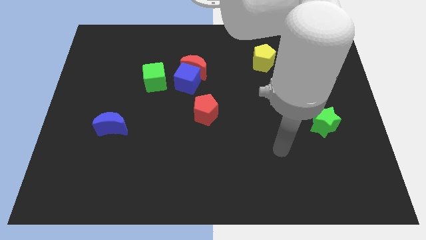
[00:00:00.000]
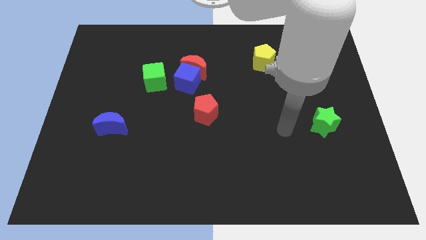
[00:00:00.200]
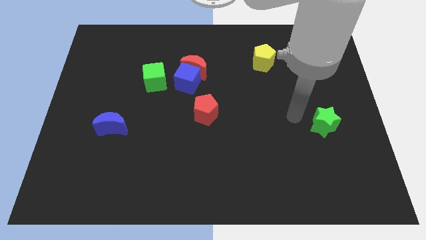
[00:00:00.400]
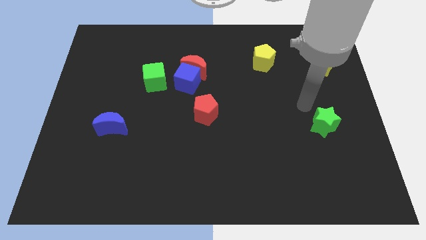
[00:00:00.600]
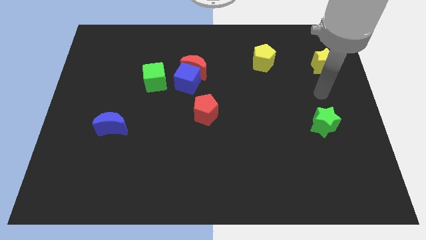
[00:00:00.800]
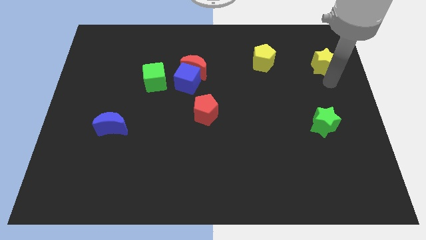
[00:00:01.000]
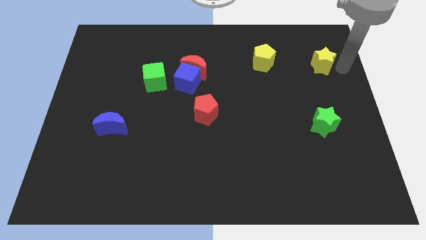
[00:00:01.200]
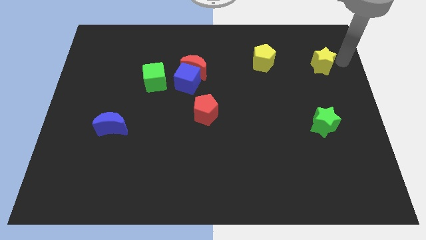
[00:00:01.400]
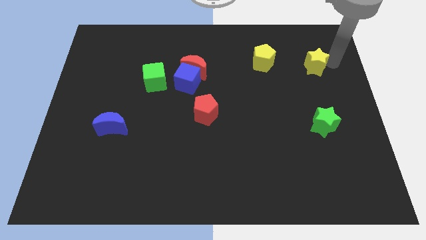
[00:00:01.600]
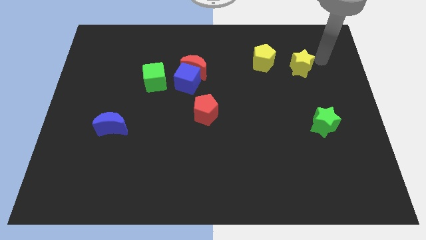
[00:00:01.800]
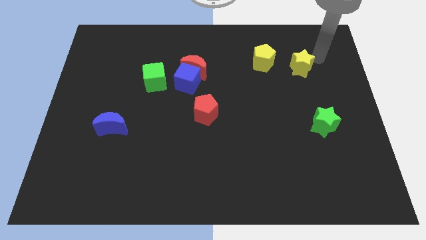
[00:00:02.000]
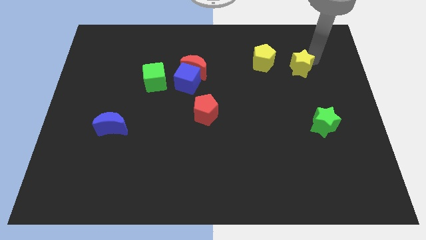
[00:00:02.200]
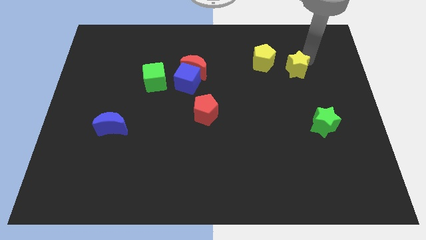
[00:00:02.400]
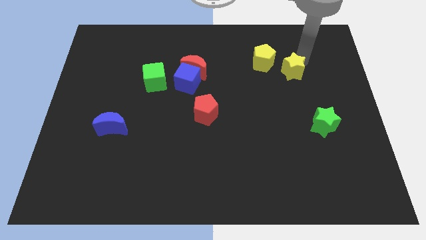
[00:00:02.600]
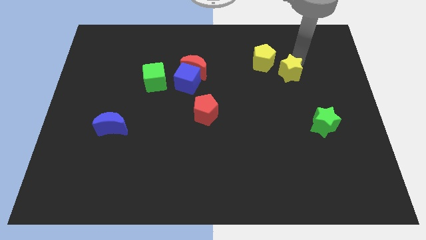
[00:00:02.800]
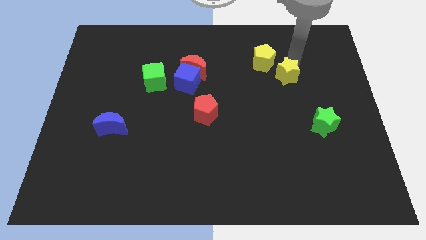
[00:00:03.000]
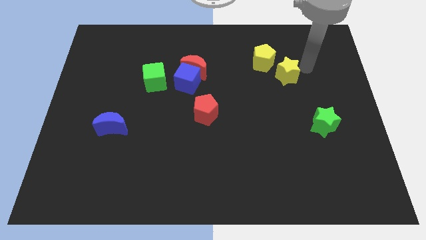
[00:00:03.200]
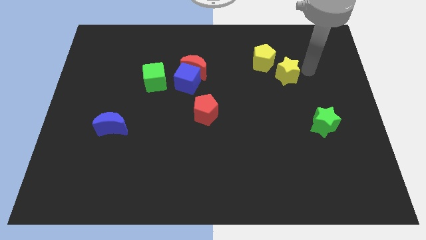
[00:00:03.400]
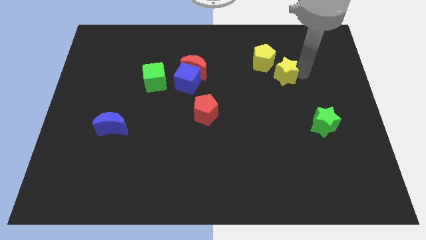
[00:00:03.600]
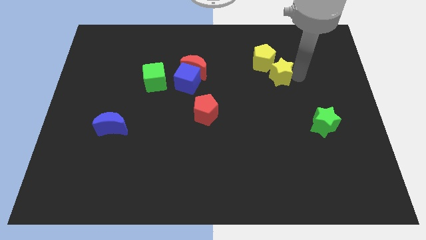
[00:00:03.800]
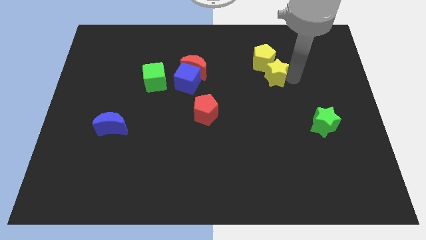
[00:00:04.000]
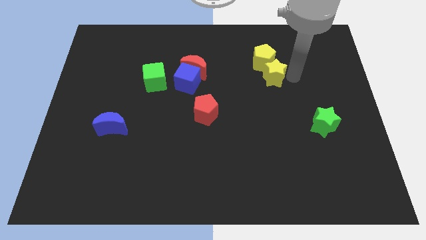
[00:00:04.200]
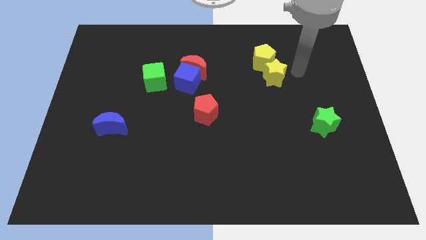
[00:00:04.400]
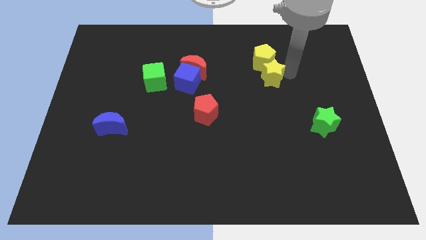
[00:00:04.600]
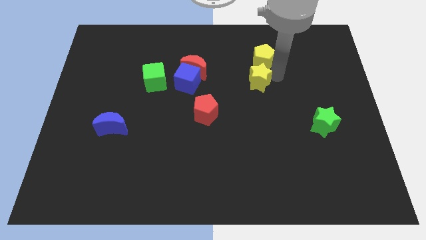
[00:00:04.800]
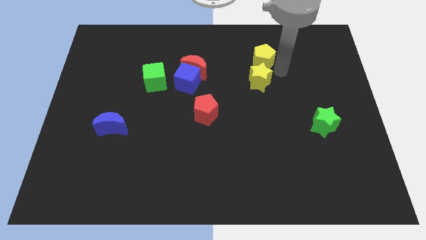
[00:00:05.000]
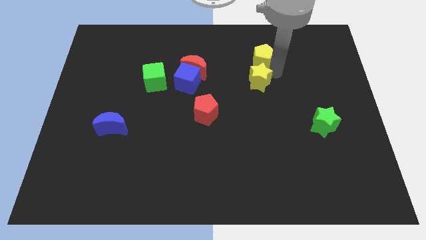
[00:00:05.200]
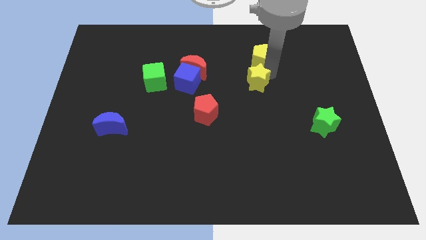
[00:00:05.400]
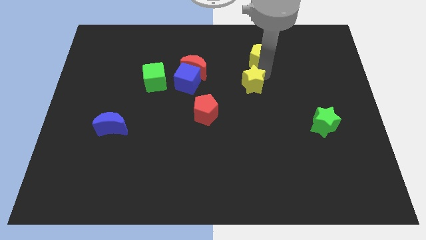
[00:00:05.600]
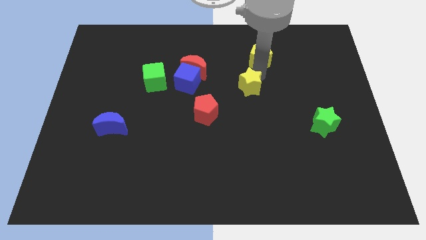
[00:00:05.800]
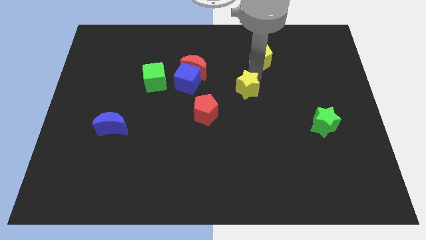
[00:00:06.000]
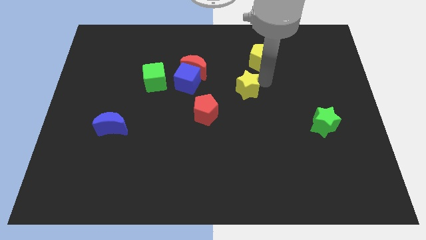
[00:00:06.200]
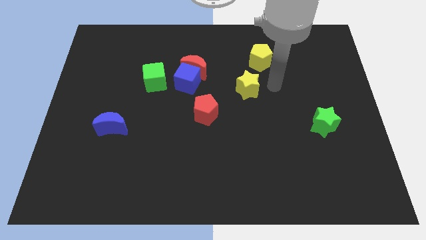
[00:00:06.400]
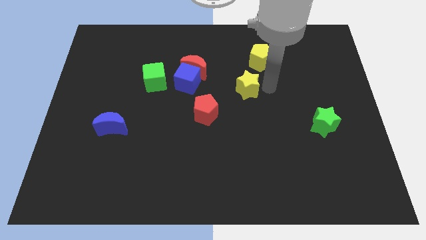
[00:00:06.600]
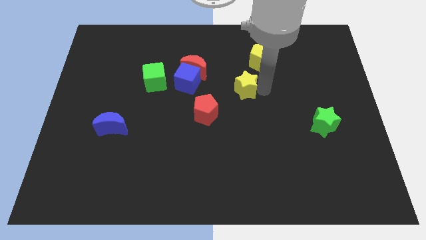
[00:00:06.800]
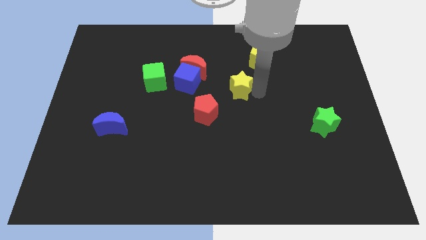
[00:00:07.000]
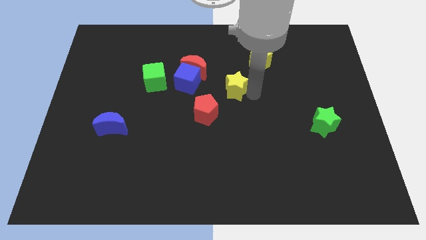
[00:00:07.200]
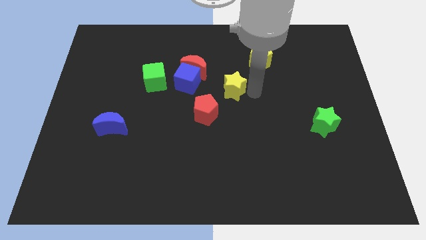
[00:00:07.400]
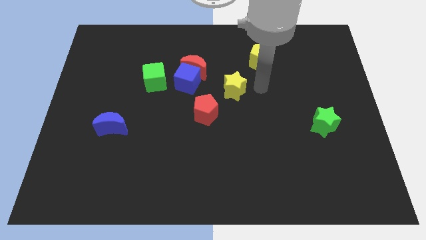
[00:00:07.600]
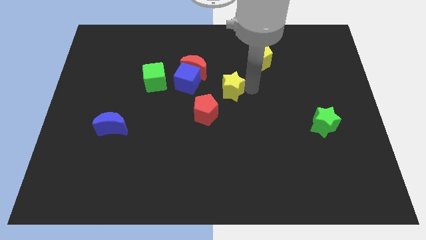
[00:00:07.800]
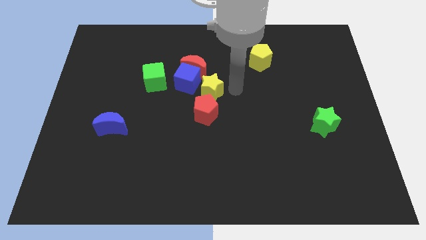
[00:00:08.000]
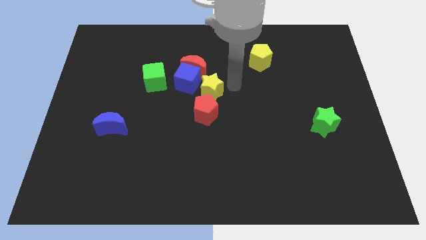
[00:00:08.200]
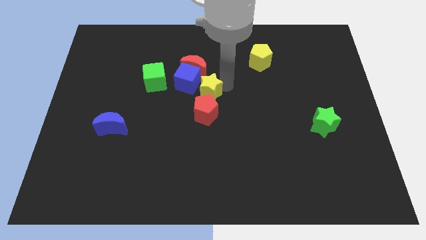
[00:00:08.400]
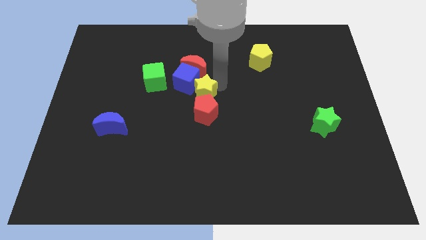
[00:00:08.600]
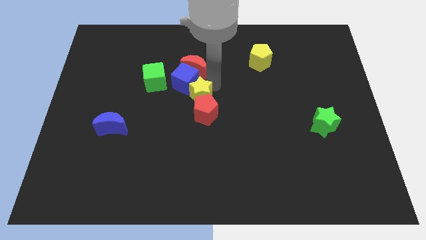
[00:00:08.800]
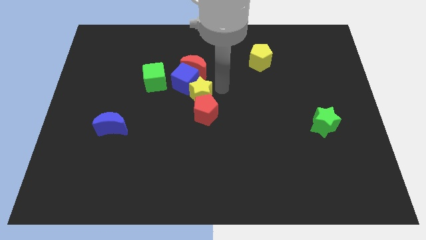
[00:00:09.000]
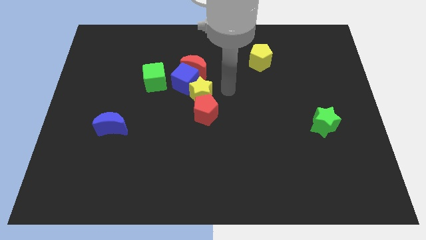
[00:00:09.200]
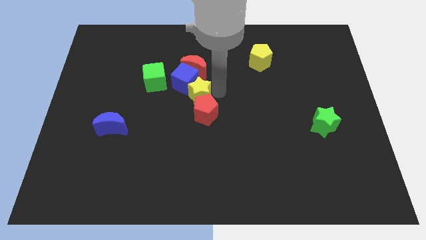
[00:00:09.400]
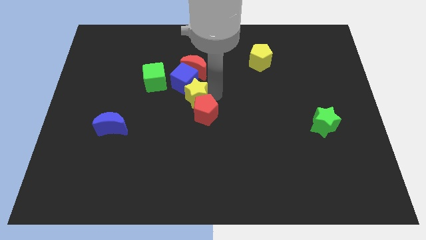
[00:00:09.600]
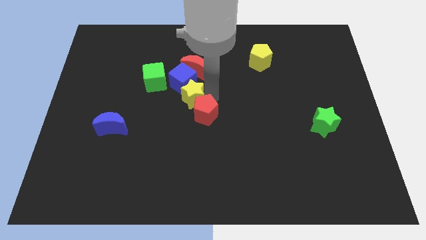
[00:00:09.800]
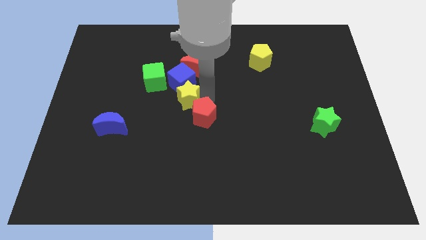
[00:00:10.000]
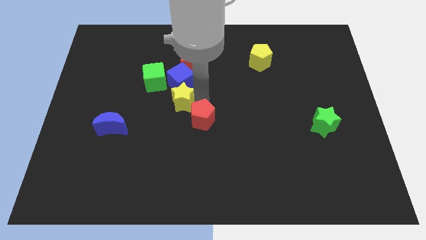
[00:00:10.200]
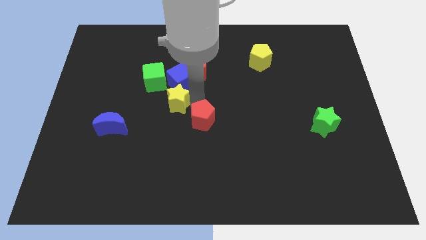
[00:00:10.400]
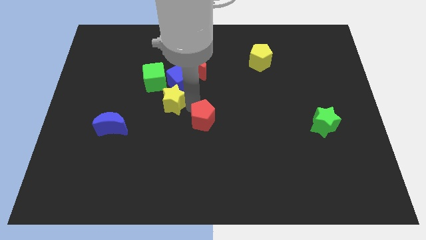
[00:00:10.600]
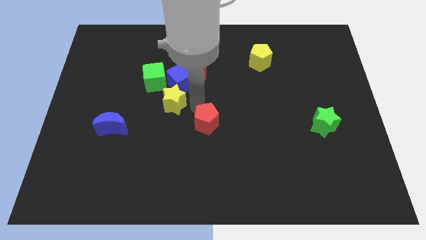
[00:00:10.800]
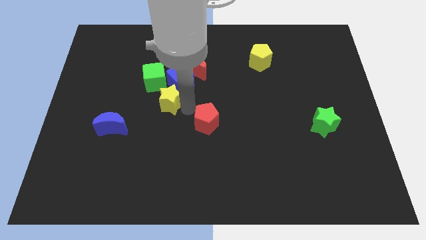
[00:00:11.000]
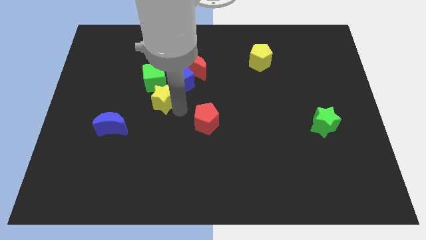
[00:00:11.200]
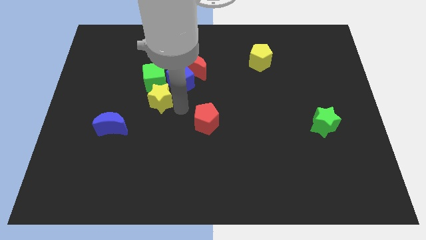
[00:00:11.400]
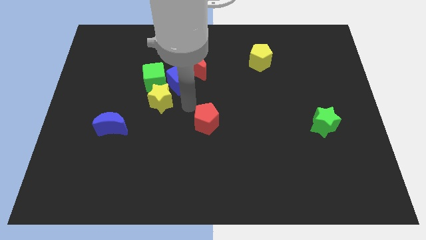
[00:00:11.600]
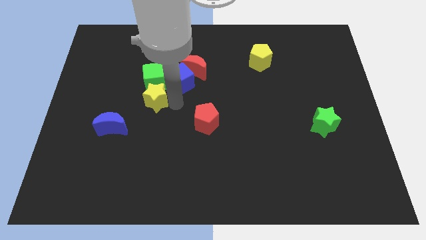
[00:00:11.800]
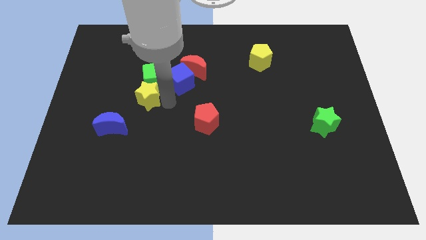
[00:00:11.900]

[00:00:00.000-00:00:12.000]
slide the yellow star diagonally down and to the left of the green cube

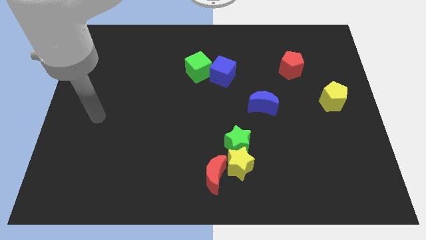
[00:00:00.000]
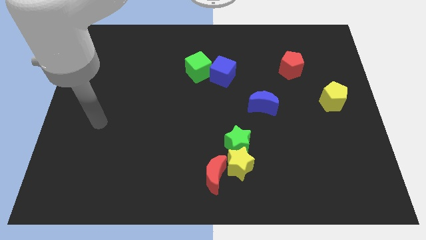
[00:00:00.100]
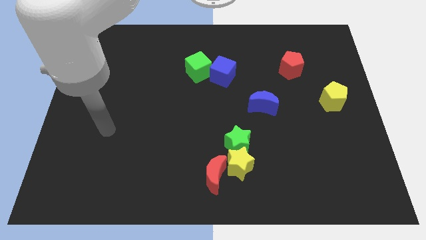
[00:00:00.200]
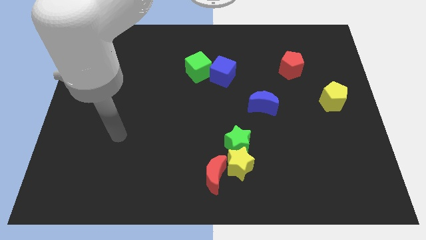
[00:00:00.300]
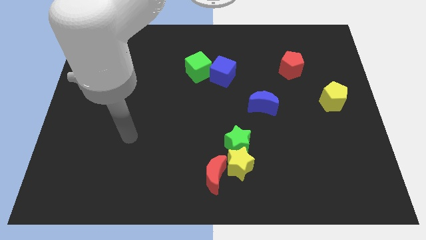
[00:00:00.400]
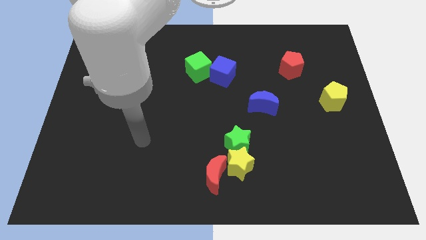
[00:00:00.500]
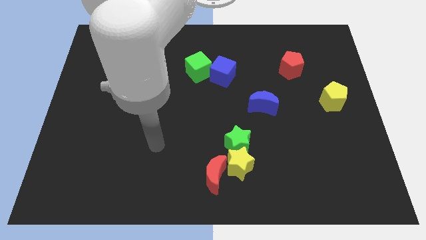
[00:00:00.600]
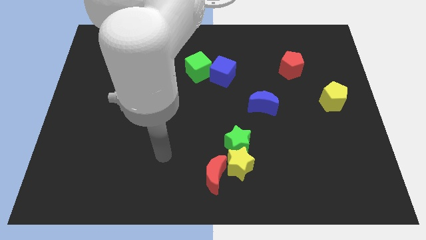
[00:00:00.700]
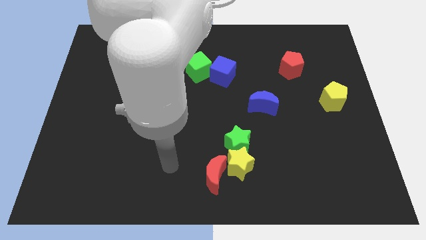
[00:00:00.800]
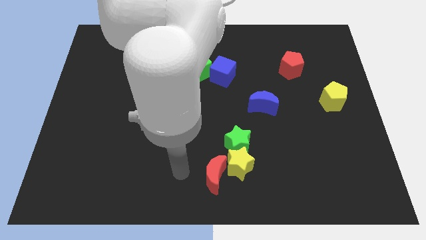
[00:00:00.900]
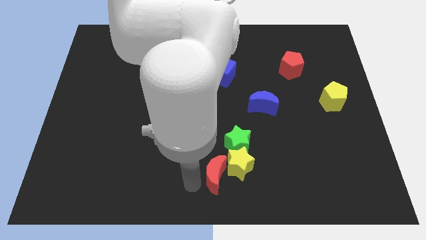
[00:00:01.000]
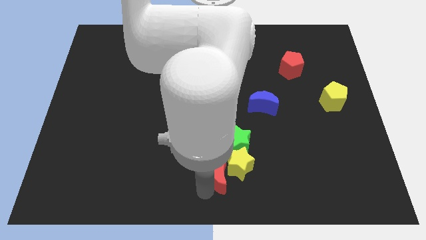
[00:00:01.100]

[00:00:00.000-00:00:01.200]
push the red moon diagonally up and to the left of the yellow star

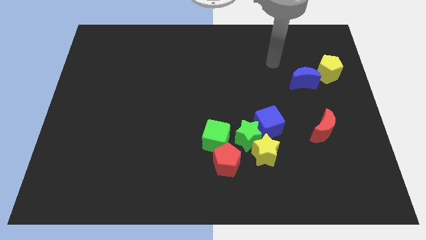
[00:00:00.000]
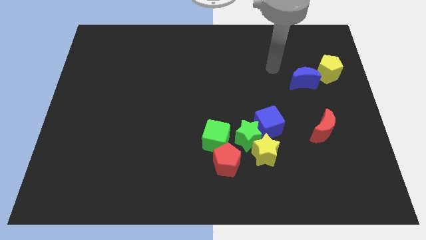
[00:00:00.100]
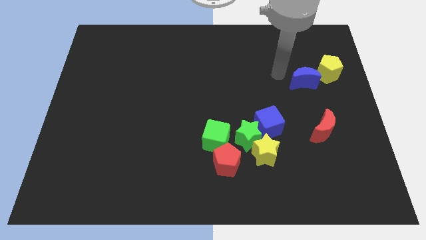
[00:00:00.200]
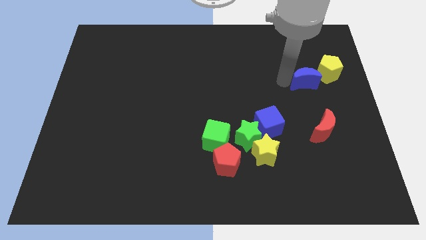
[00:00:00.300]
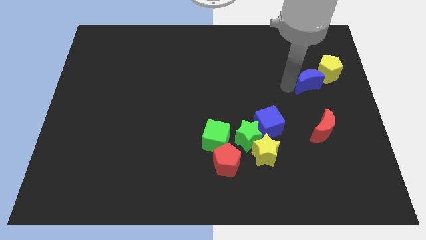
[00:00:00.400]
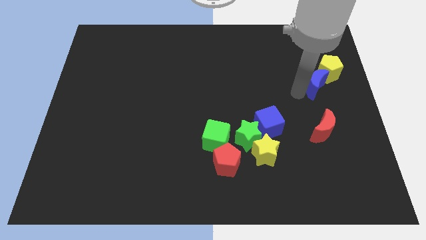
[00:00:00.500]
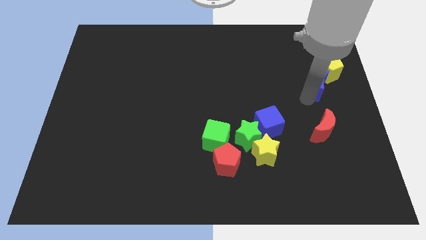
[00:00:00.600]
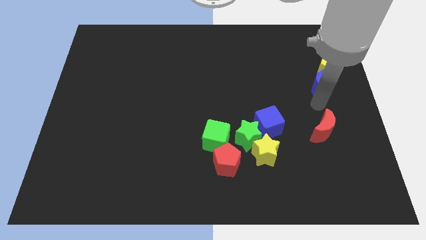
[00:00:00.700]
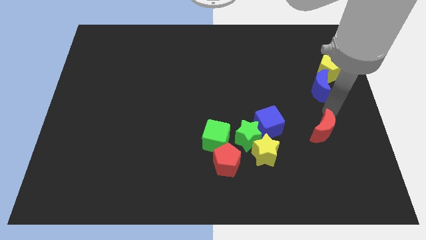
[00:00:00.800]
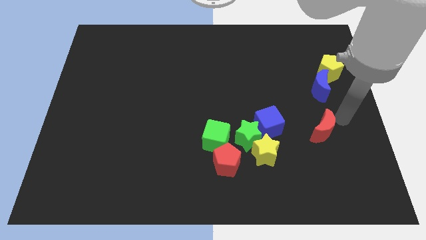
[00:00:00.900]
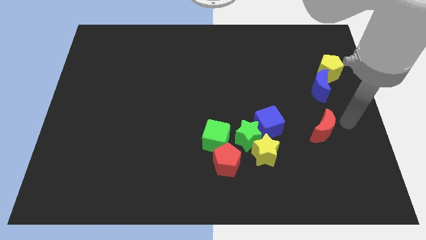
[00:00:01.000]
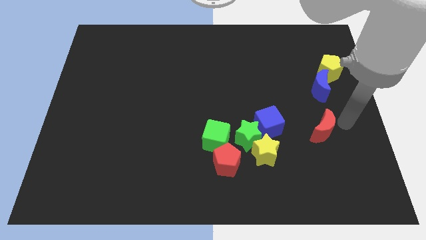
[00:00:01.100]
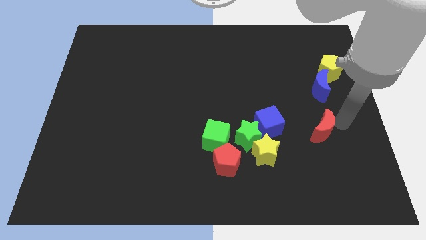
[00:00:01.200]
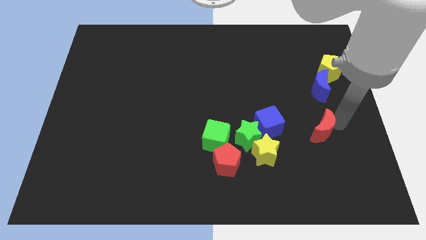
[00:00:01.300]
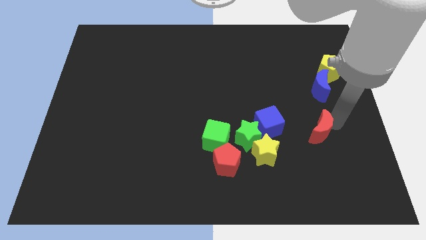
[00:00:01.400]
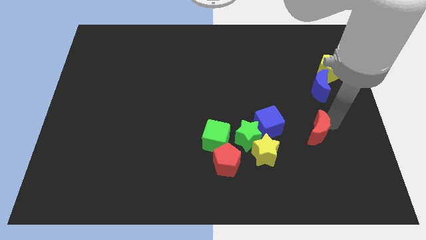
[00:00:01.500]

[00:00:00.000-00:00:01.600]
slide the red moon right of the green star
